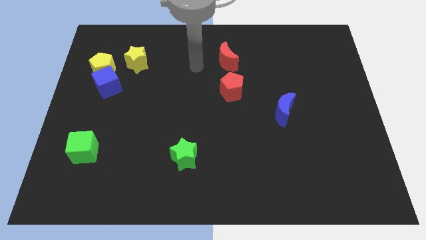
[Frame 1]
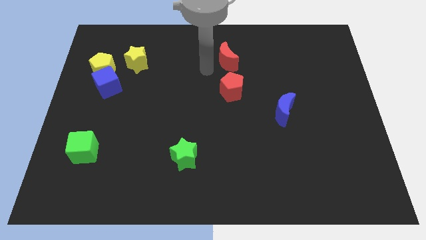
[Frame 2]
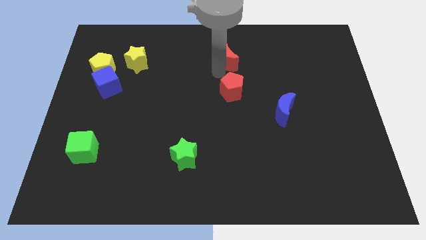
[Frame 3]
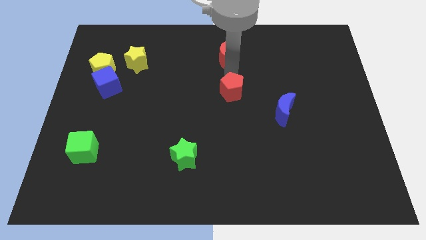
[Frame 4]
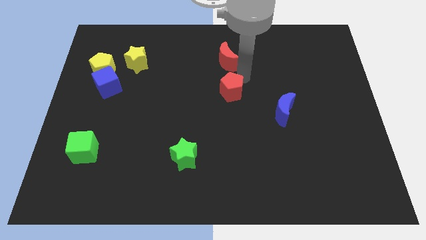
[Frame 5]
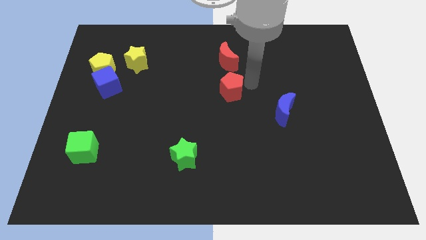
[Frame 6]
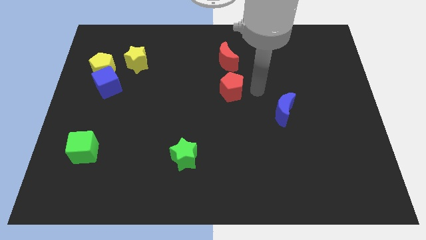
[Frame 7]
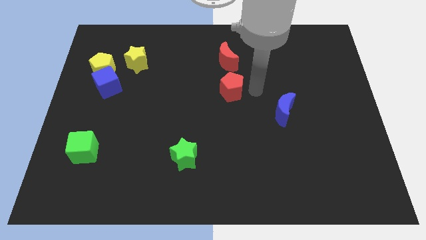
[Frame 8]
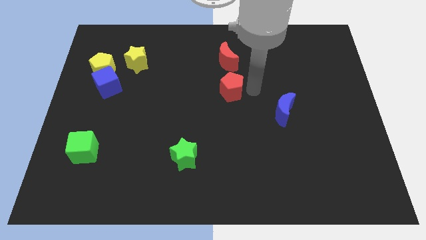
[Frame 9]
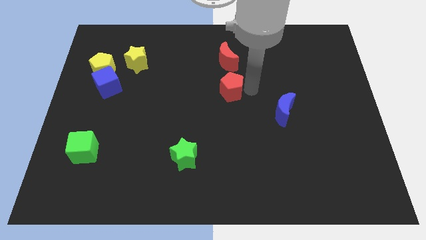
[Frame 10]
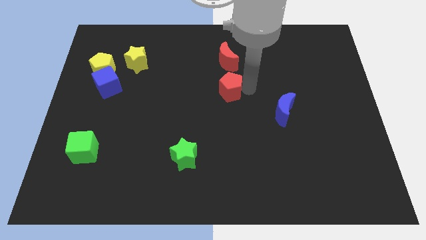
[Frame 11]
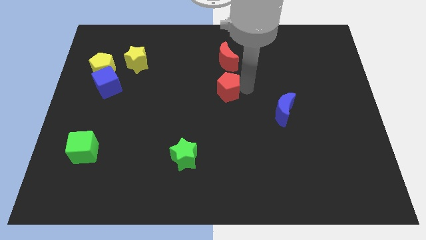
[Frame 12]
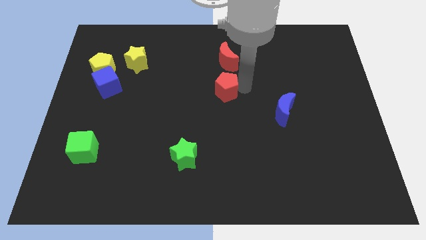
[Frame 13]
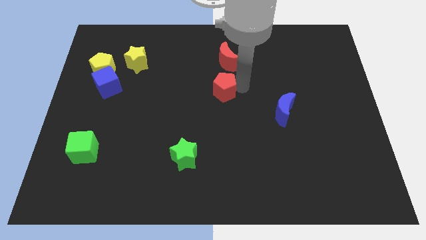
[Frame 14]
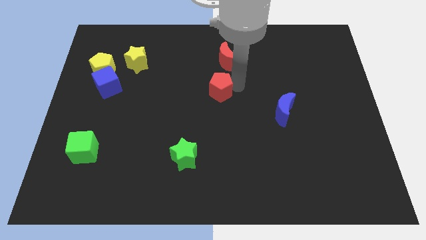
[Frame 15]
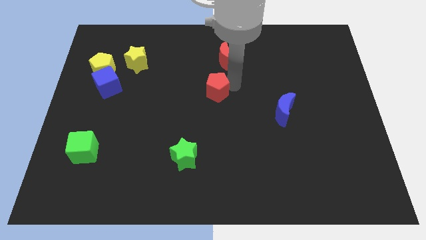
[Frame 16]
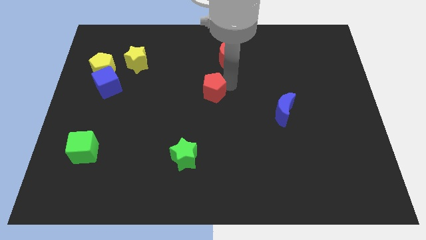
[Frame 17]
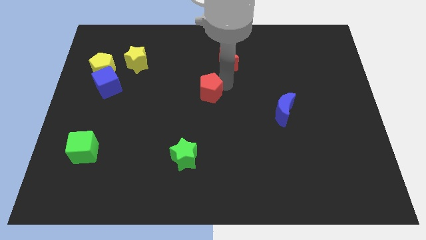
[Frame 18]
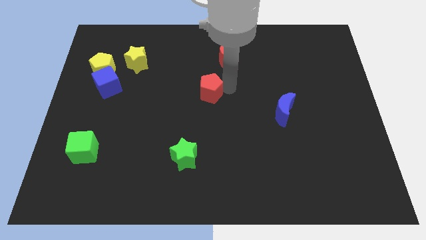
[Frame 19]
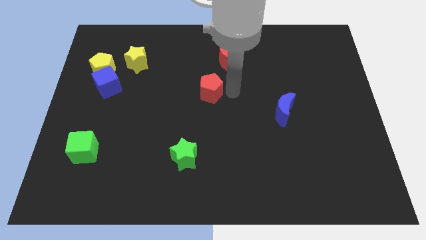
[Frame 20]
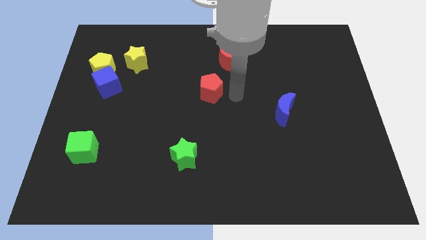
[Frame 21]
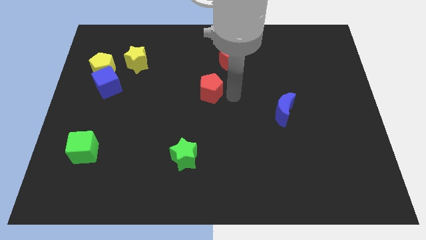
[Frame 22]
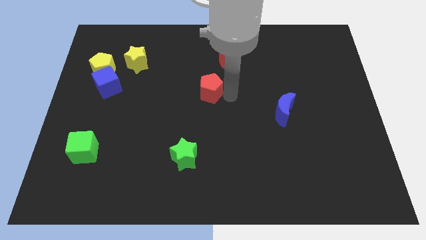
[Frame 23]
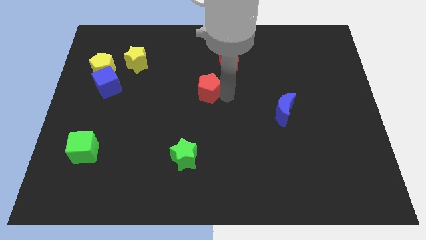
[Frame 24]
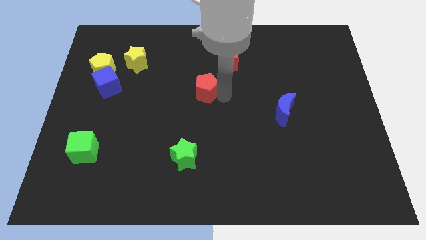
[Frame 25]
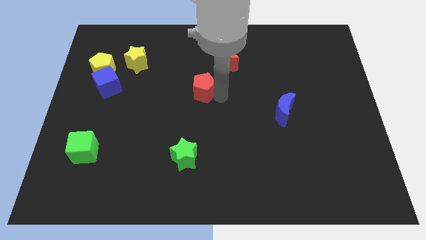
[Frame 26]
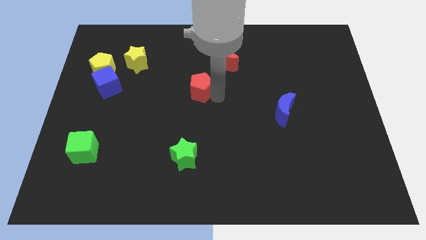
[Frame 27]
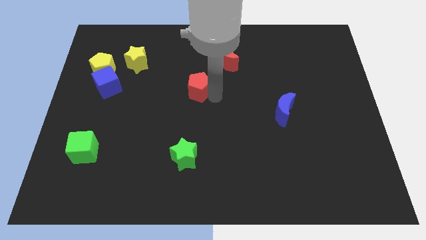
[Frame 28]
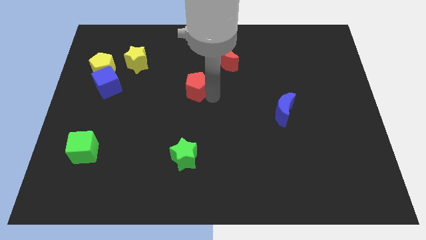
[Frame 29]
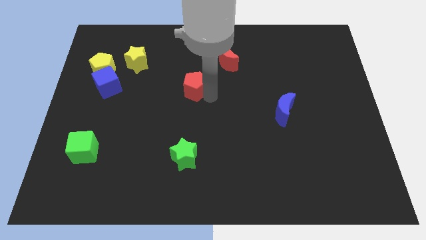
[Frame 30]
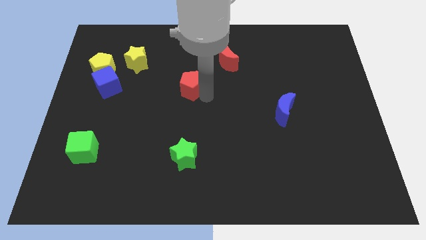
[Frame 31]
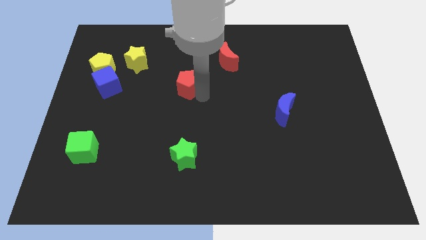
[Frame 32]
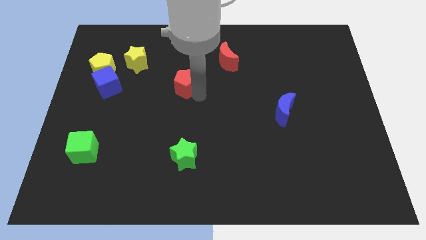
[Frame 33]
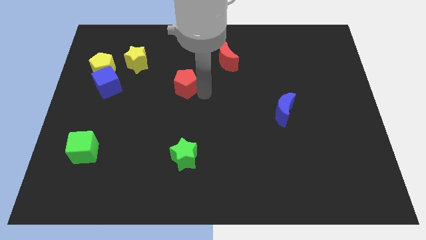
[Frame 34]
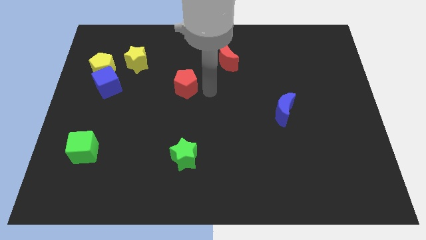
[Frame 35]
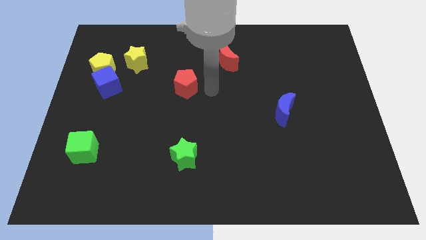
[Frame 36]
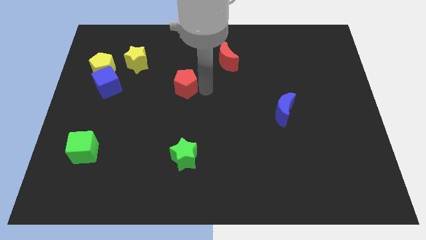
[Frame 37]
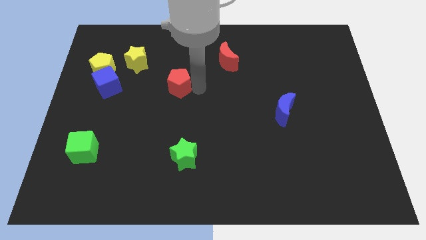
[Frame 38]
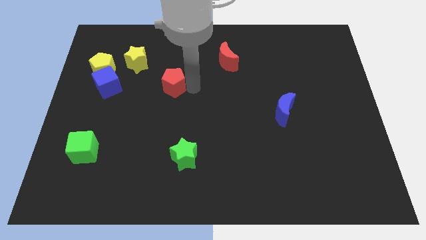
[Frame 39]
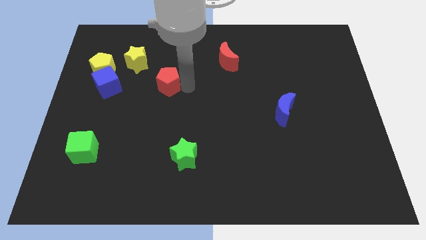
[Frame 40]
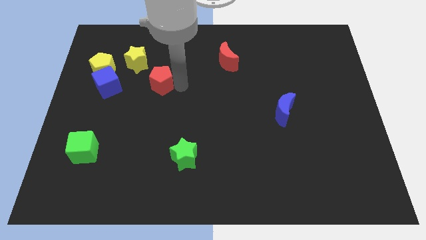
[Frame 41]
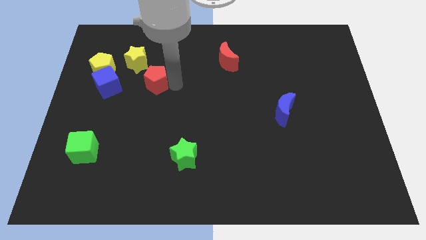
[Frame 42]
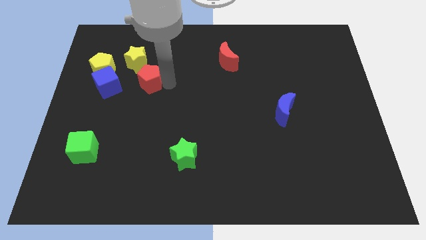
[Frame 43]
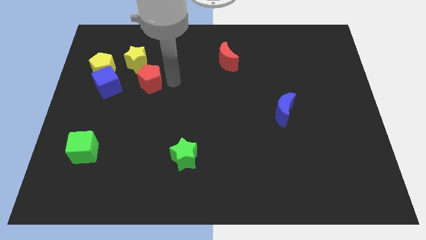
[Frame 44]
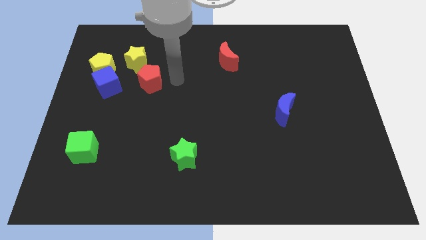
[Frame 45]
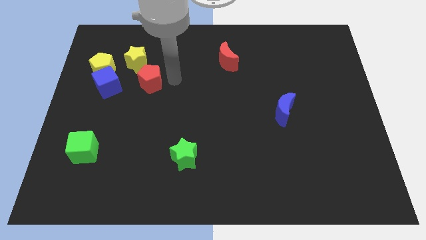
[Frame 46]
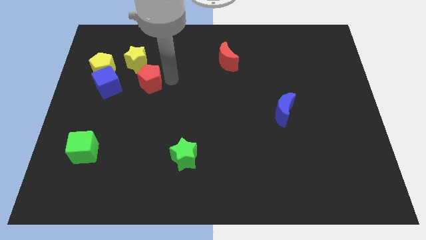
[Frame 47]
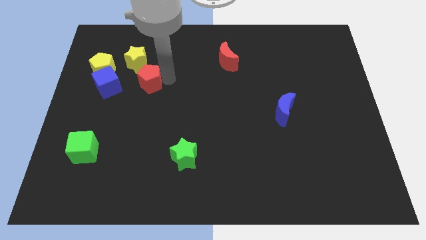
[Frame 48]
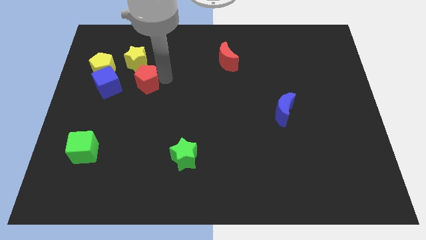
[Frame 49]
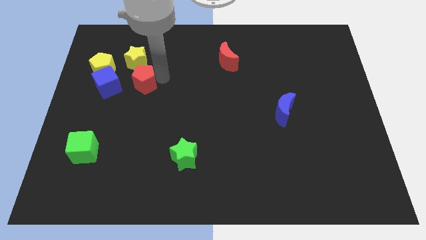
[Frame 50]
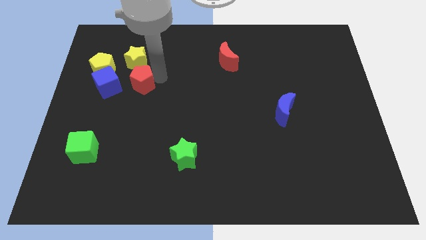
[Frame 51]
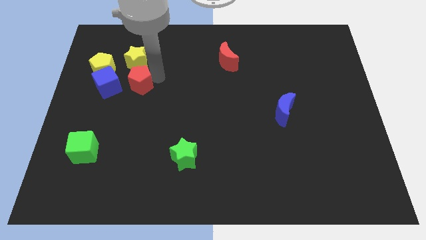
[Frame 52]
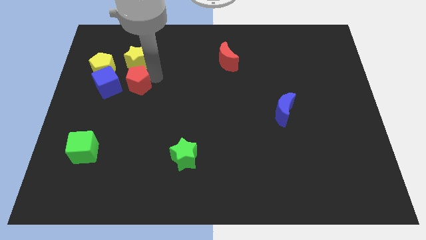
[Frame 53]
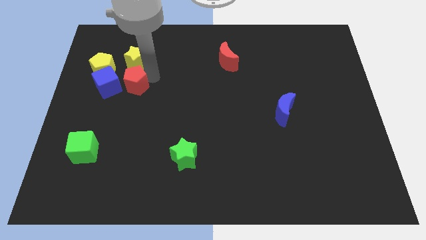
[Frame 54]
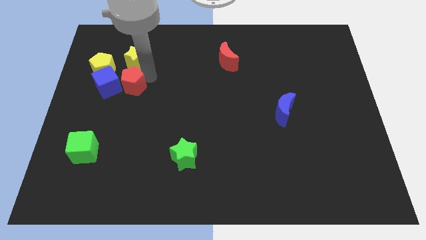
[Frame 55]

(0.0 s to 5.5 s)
move the red pentagon next to the blue cube

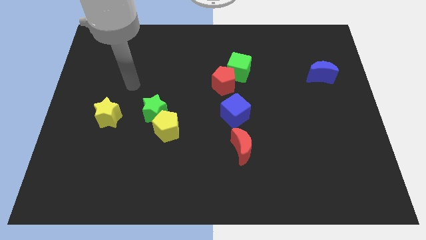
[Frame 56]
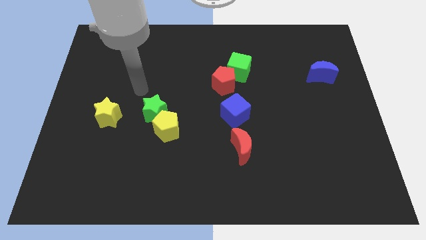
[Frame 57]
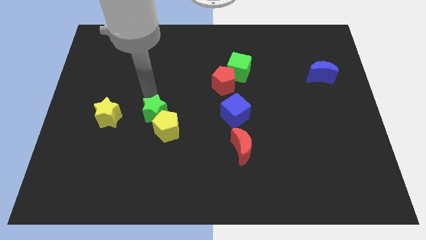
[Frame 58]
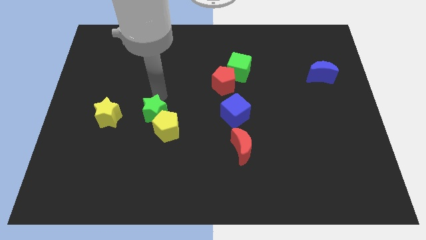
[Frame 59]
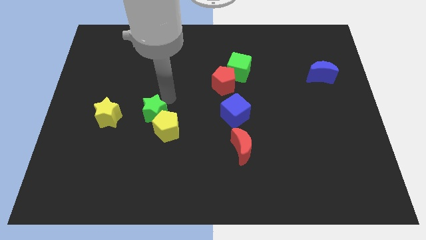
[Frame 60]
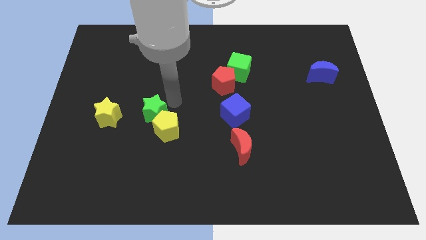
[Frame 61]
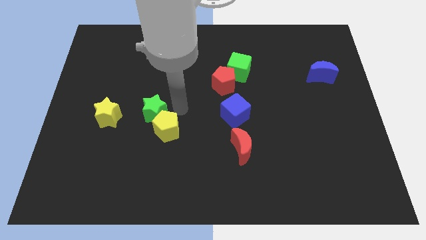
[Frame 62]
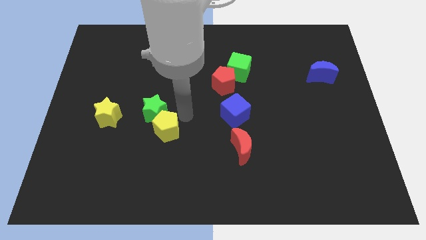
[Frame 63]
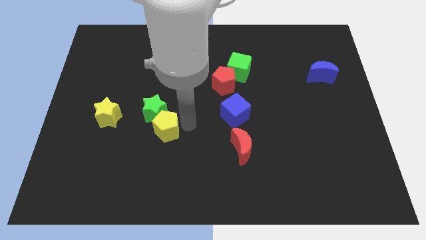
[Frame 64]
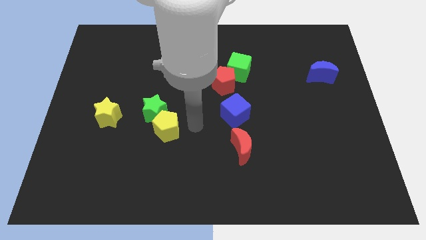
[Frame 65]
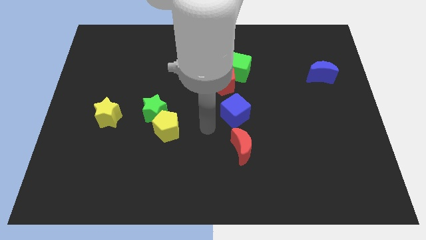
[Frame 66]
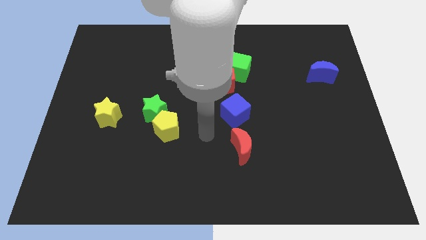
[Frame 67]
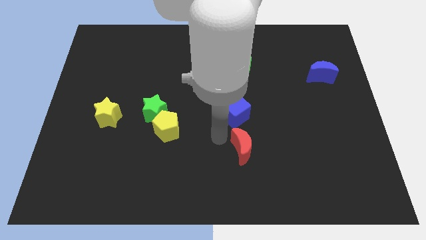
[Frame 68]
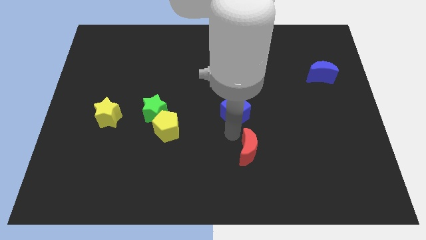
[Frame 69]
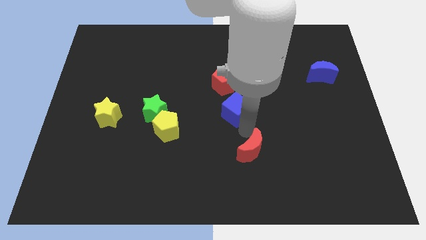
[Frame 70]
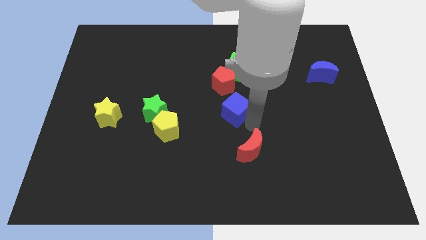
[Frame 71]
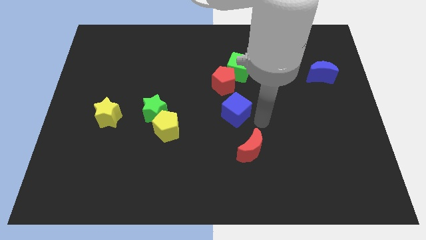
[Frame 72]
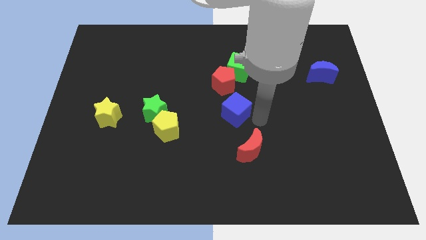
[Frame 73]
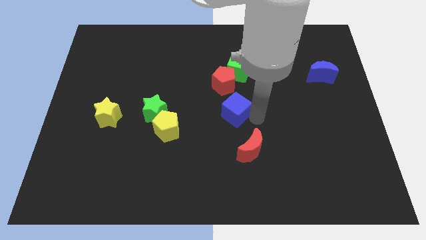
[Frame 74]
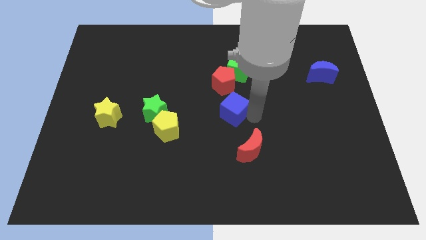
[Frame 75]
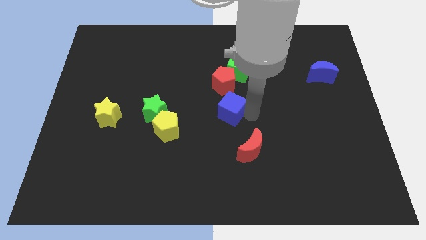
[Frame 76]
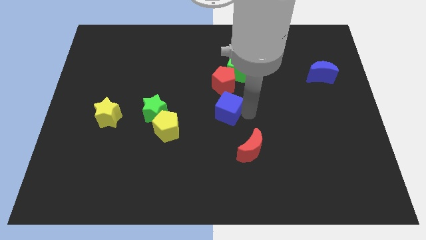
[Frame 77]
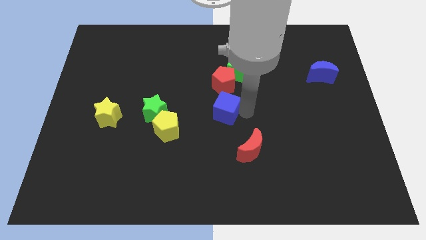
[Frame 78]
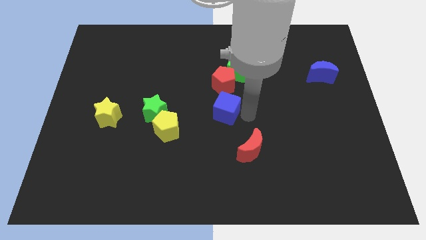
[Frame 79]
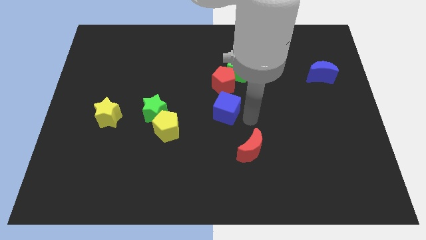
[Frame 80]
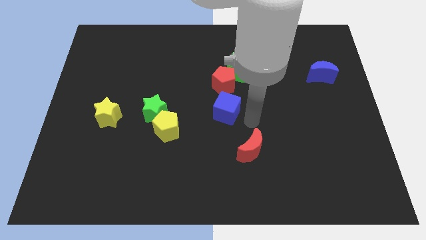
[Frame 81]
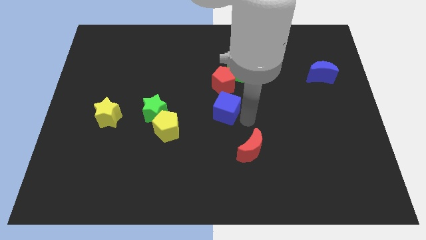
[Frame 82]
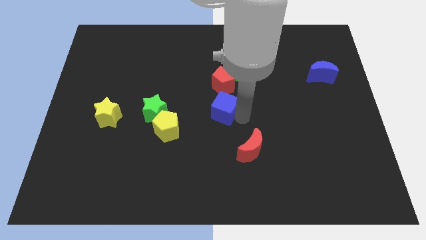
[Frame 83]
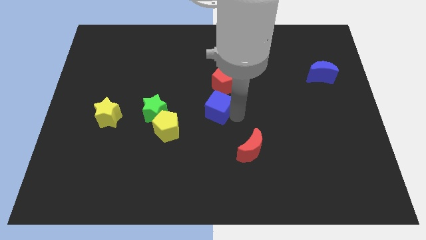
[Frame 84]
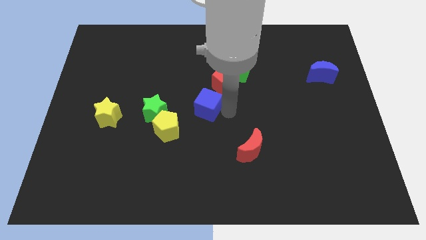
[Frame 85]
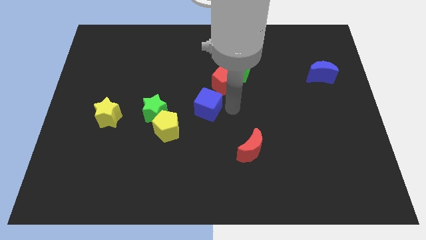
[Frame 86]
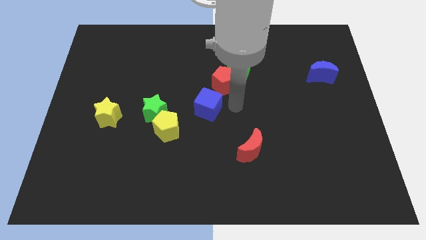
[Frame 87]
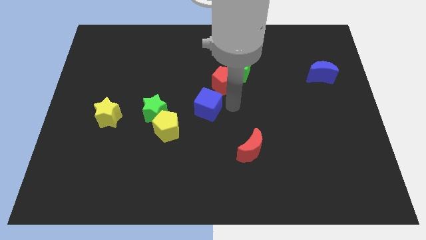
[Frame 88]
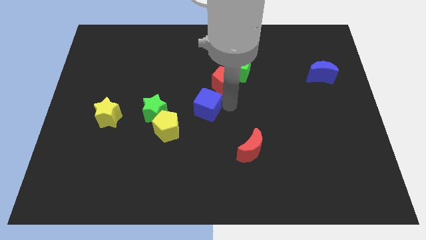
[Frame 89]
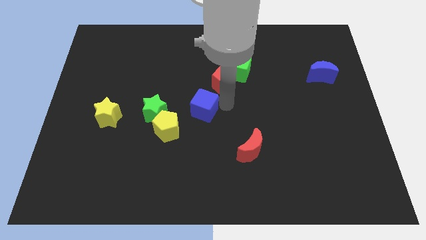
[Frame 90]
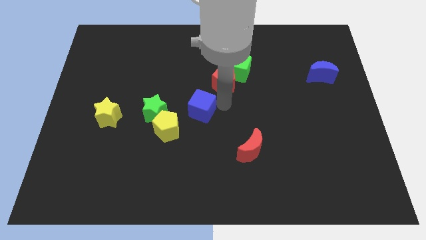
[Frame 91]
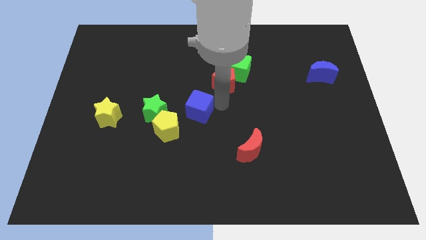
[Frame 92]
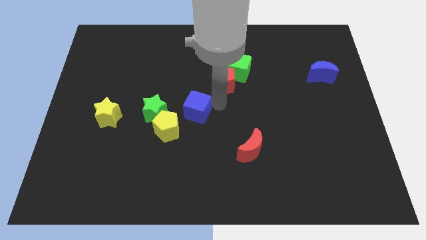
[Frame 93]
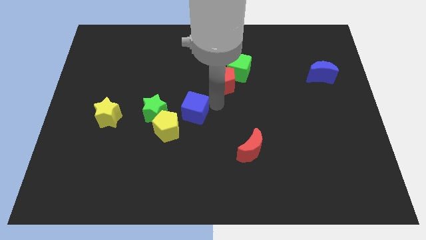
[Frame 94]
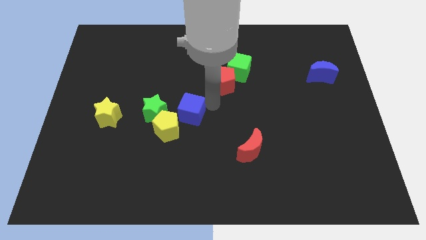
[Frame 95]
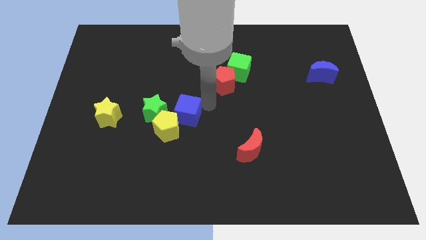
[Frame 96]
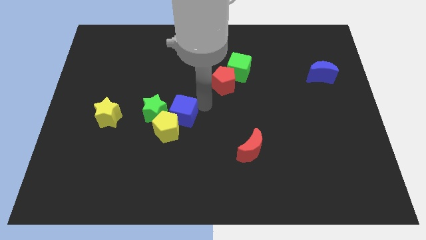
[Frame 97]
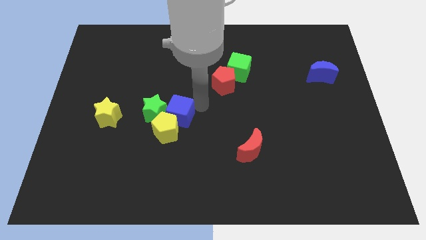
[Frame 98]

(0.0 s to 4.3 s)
slide the blue cube next to the green star
